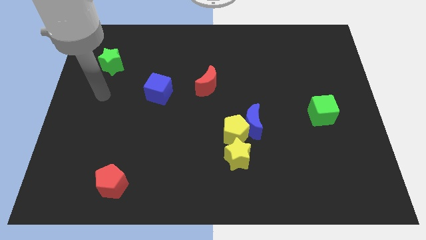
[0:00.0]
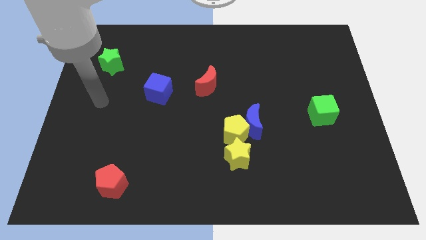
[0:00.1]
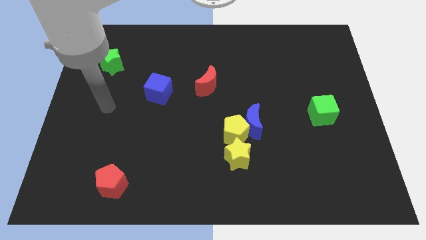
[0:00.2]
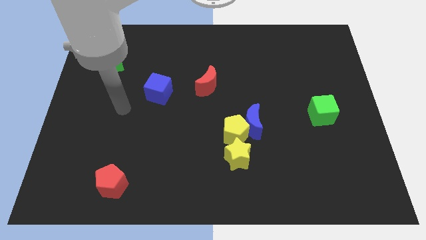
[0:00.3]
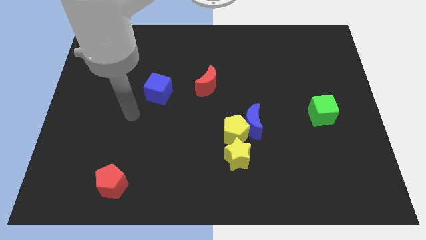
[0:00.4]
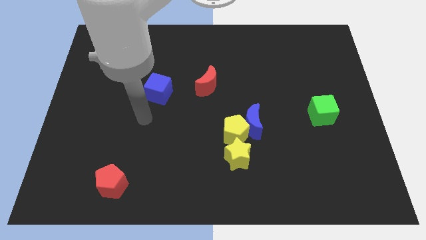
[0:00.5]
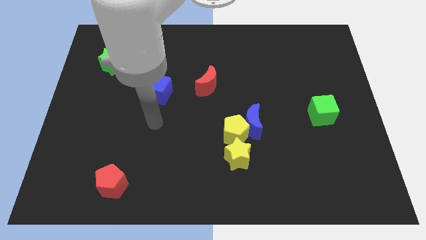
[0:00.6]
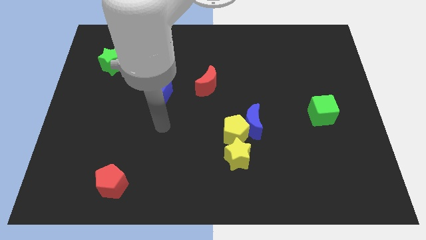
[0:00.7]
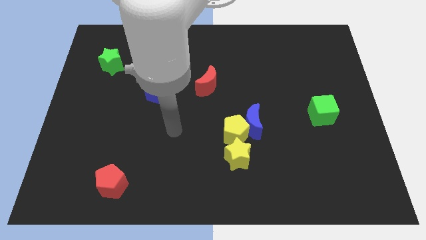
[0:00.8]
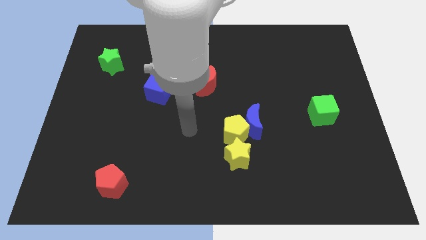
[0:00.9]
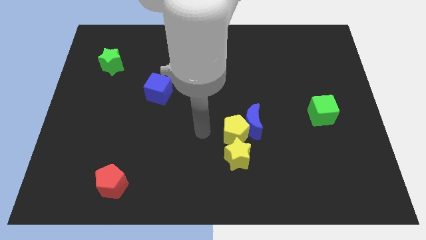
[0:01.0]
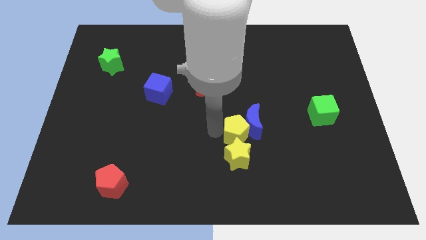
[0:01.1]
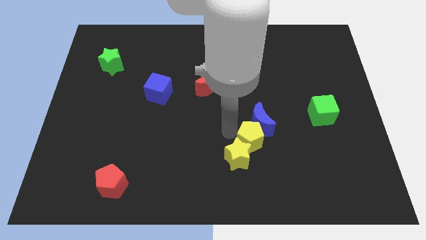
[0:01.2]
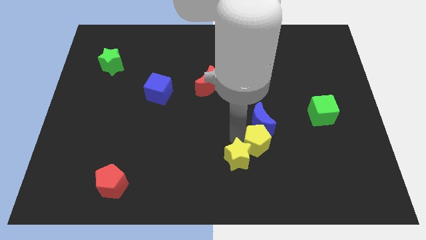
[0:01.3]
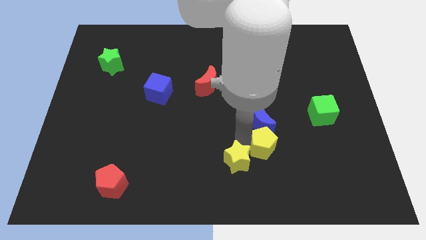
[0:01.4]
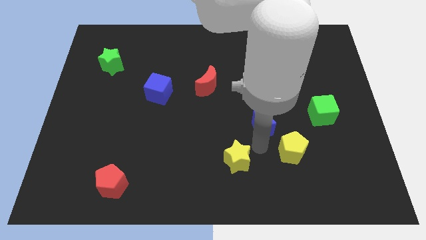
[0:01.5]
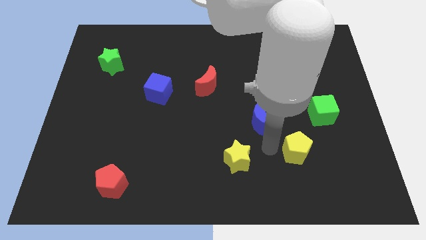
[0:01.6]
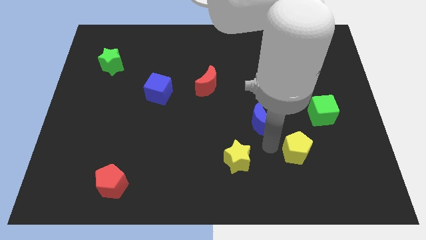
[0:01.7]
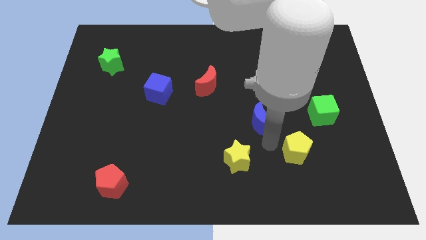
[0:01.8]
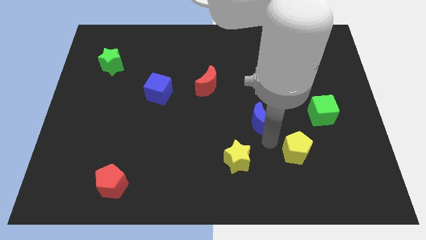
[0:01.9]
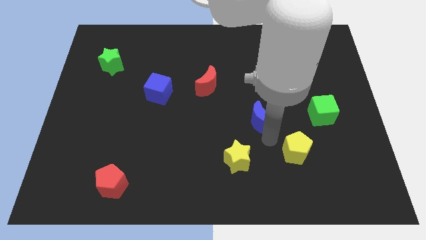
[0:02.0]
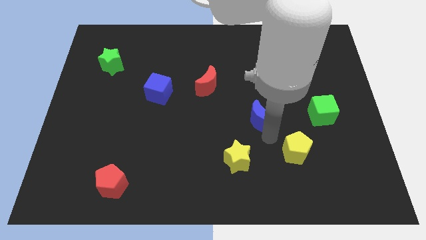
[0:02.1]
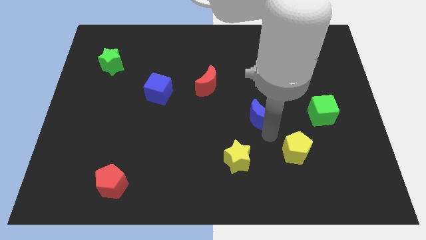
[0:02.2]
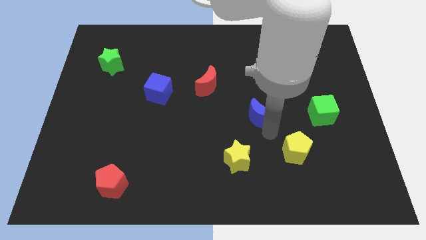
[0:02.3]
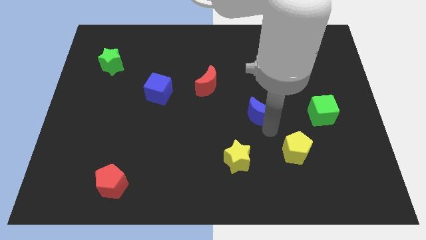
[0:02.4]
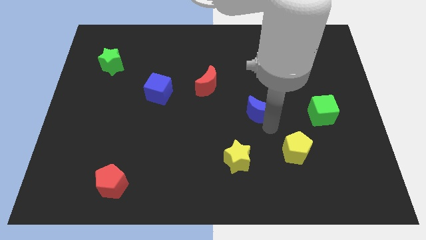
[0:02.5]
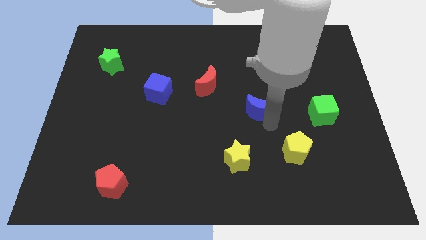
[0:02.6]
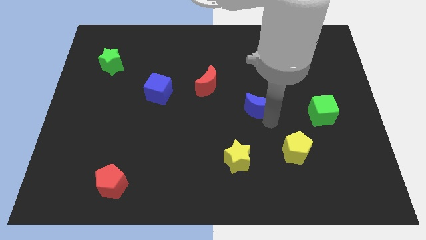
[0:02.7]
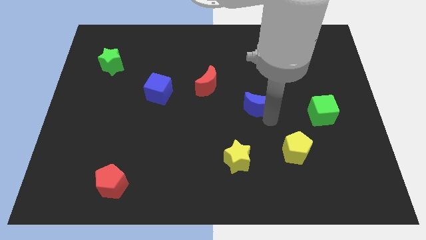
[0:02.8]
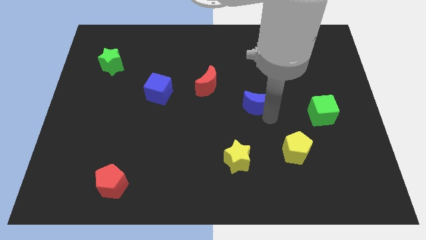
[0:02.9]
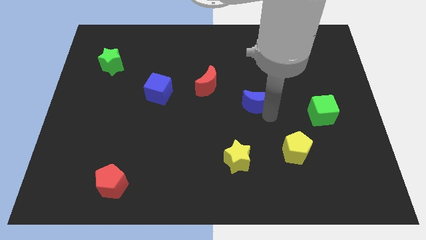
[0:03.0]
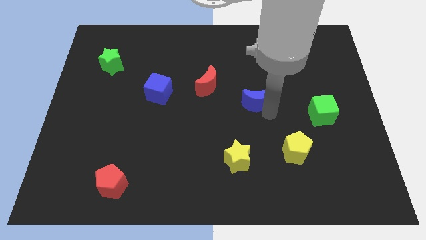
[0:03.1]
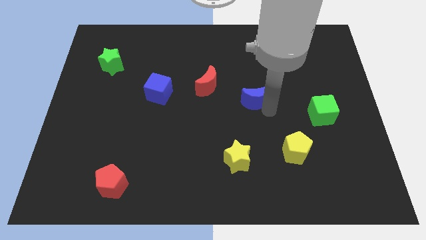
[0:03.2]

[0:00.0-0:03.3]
move the blue moon upwards a little

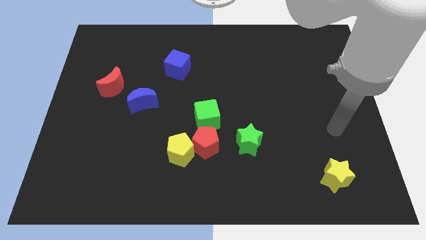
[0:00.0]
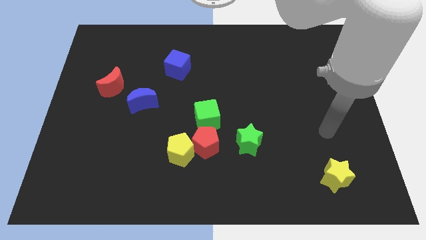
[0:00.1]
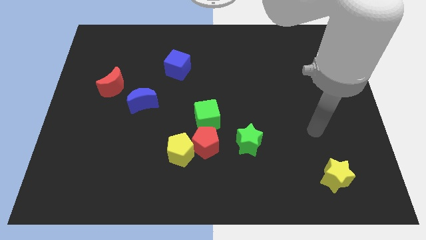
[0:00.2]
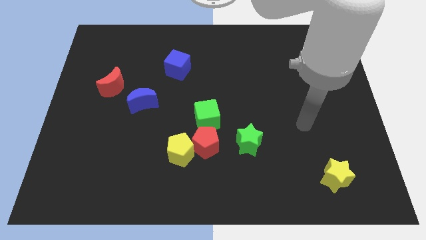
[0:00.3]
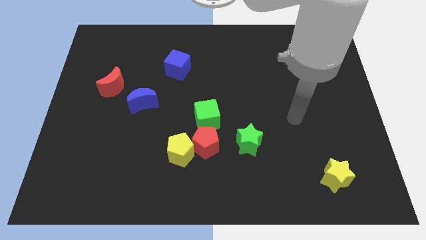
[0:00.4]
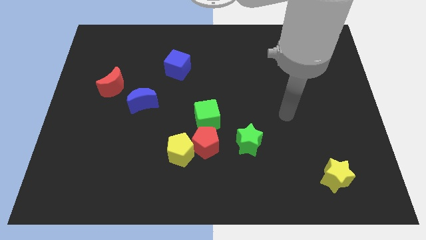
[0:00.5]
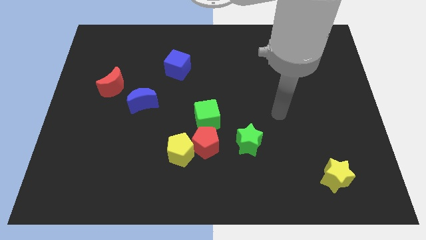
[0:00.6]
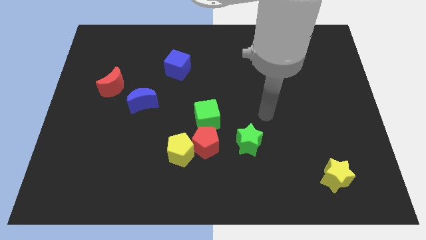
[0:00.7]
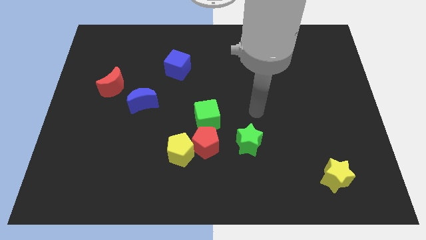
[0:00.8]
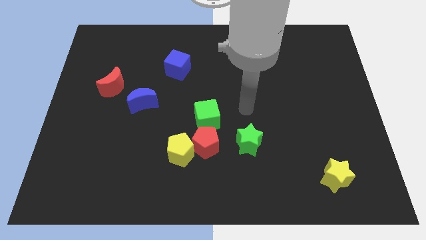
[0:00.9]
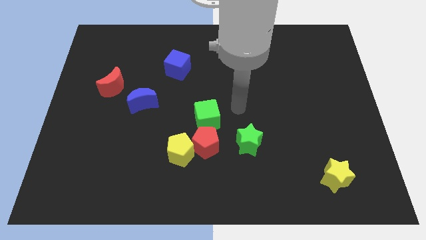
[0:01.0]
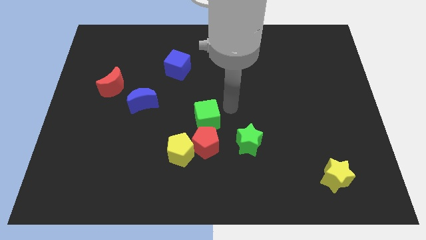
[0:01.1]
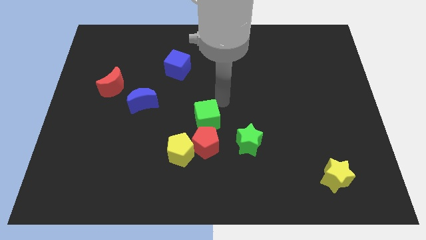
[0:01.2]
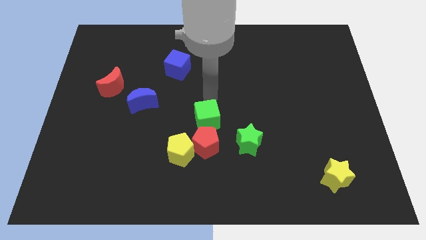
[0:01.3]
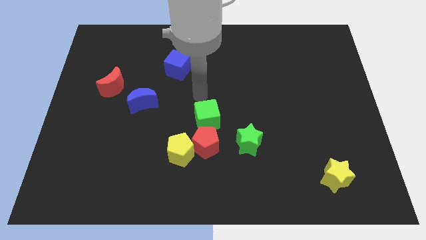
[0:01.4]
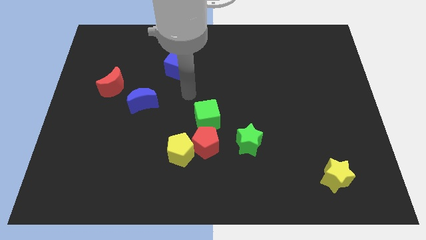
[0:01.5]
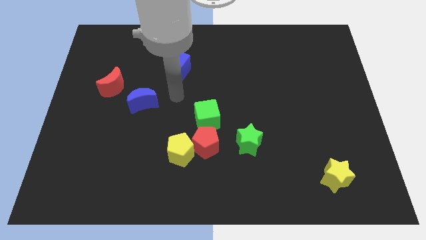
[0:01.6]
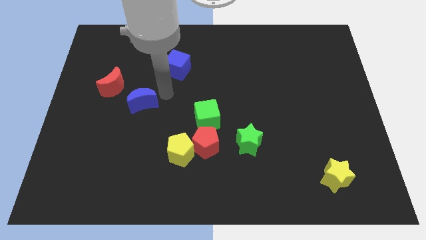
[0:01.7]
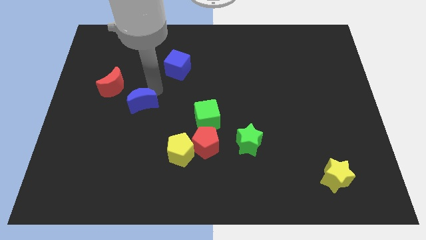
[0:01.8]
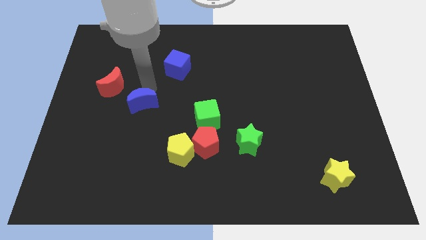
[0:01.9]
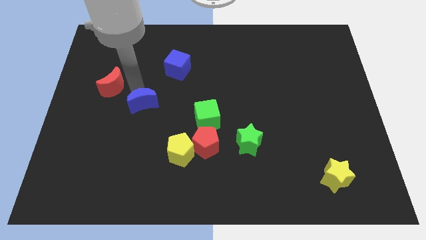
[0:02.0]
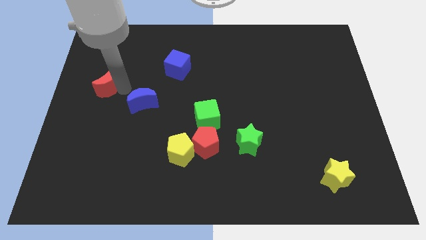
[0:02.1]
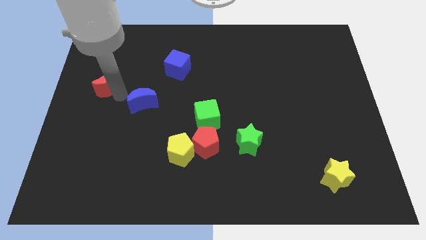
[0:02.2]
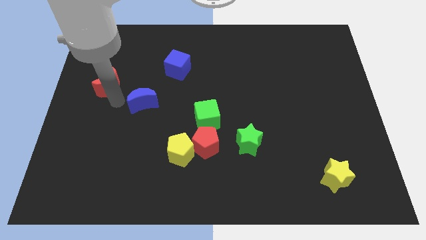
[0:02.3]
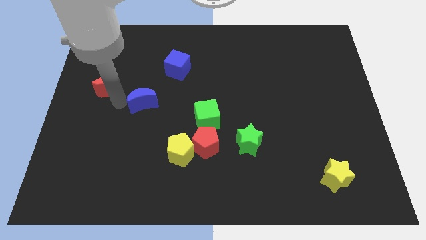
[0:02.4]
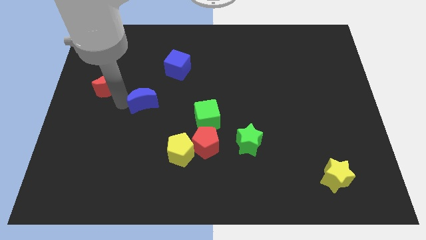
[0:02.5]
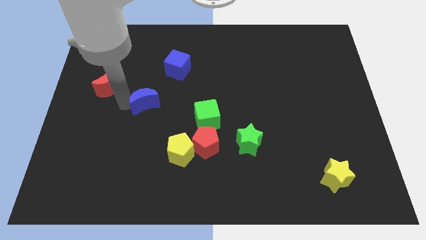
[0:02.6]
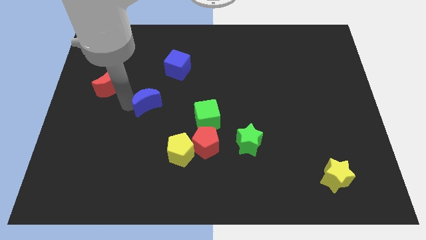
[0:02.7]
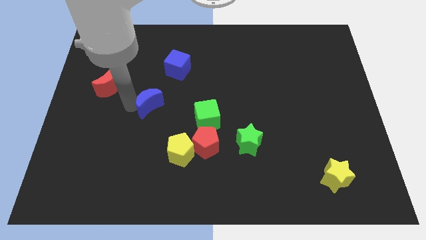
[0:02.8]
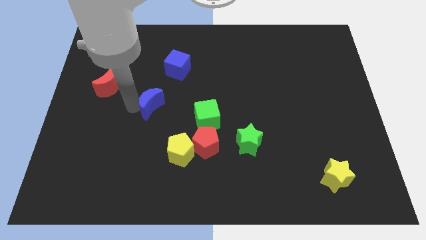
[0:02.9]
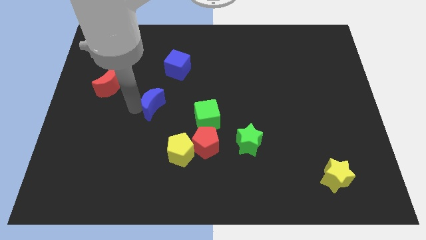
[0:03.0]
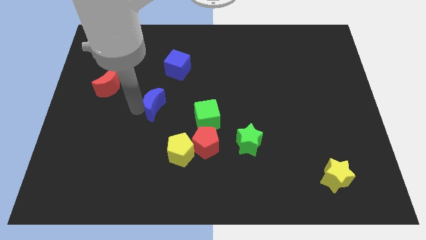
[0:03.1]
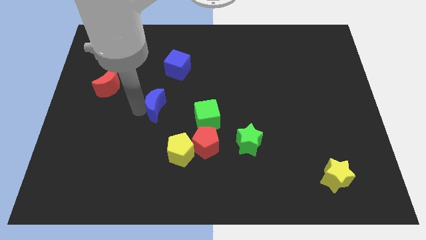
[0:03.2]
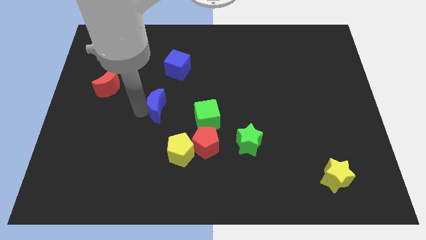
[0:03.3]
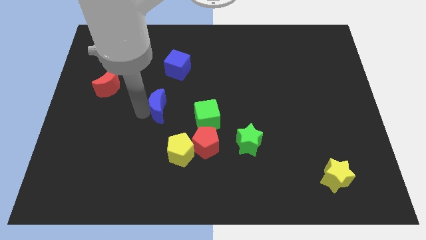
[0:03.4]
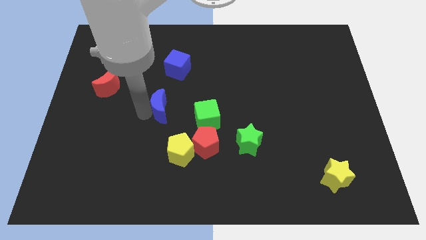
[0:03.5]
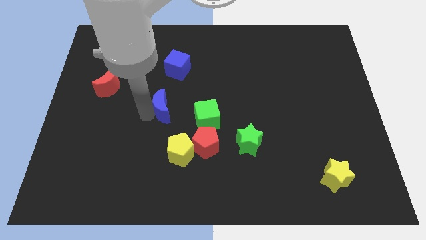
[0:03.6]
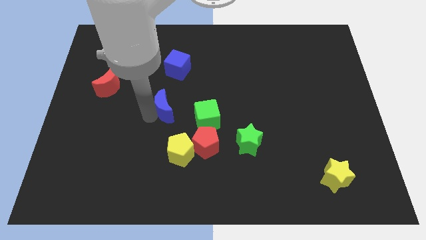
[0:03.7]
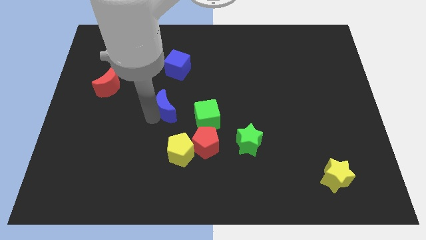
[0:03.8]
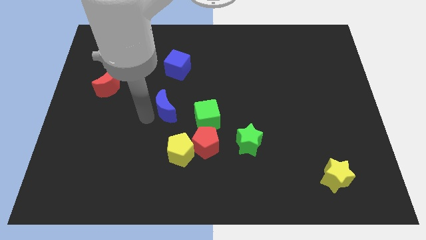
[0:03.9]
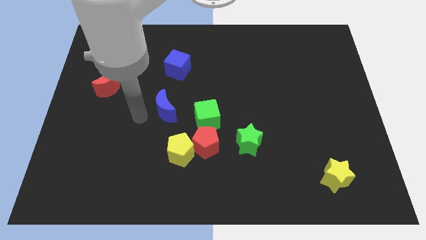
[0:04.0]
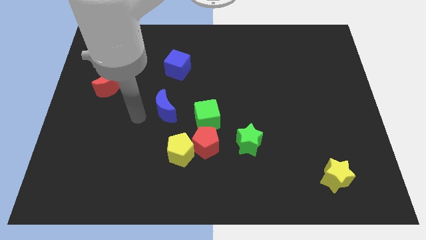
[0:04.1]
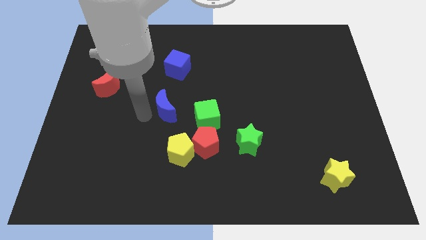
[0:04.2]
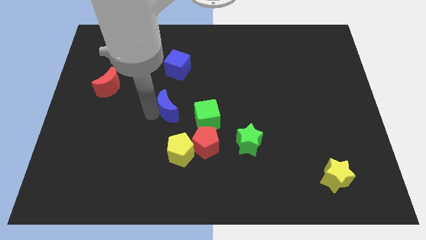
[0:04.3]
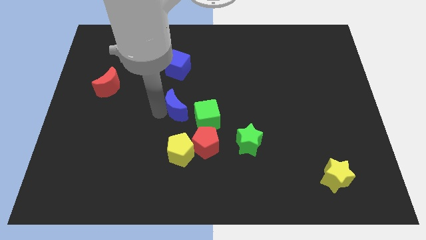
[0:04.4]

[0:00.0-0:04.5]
slide the blue moon a bit to the right

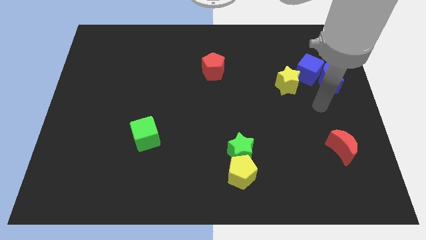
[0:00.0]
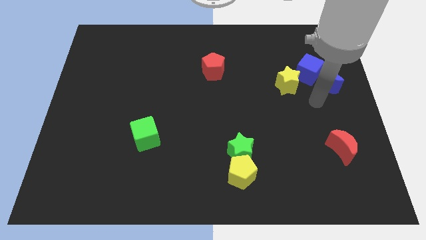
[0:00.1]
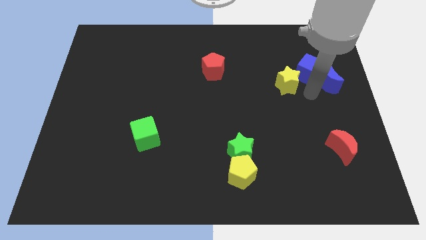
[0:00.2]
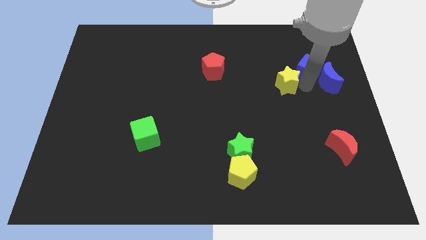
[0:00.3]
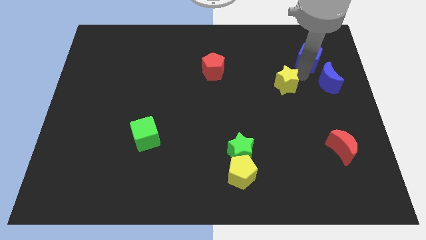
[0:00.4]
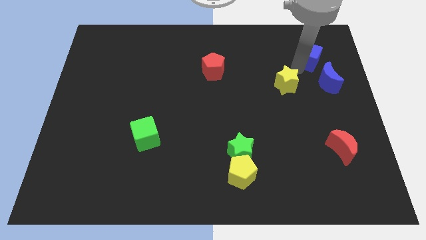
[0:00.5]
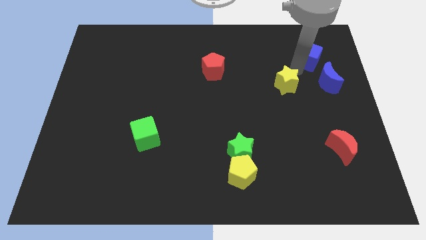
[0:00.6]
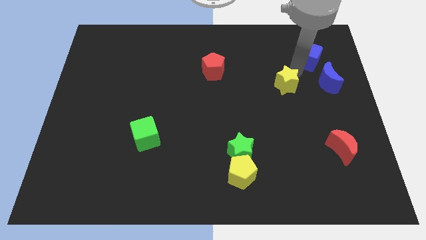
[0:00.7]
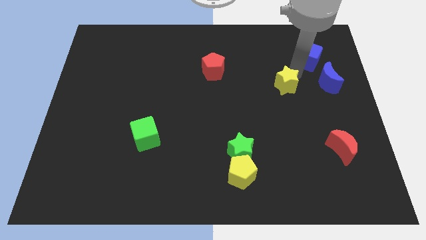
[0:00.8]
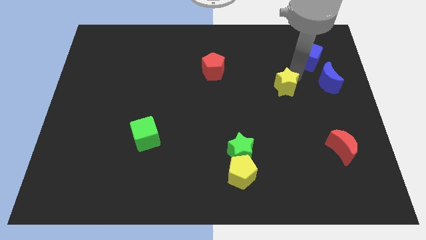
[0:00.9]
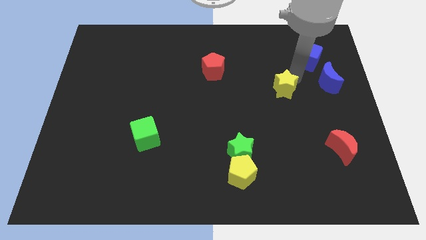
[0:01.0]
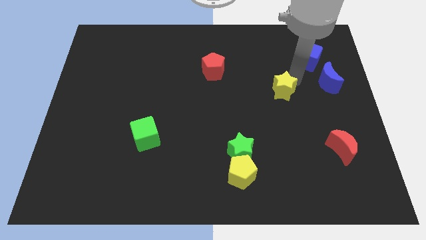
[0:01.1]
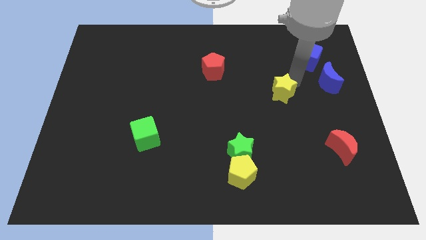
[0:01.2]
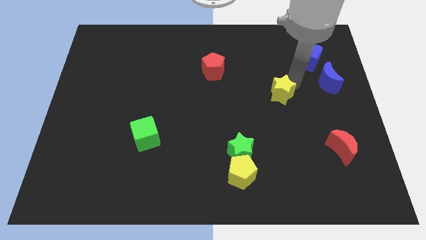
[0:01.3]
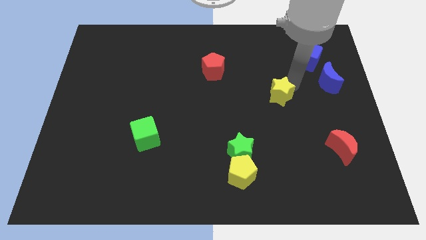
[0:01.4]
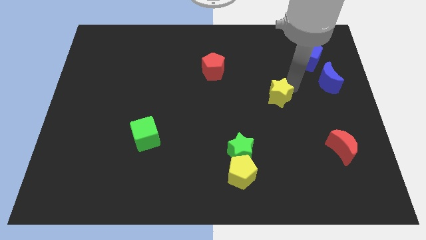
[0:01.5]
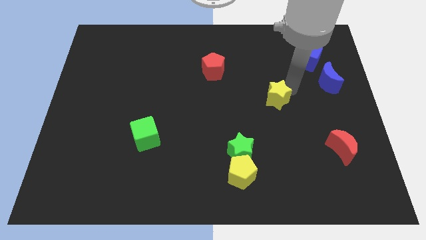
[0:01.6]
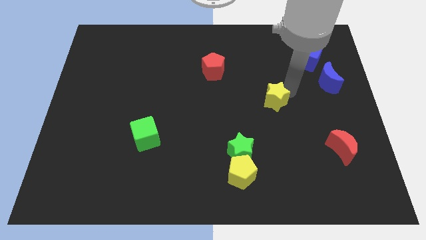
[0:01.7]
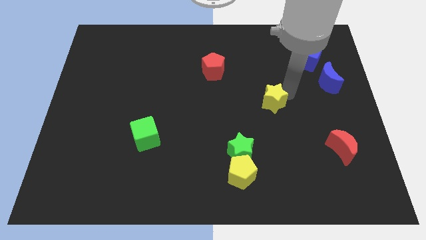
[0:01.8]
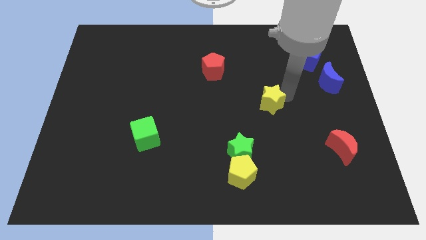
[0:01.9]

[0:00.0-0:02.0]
slide the yellow star somewhat downwards and then left
